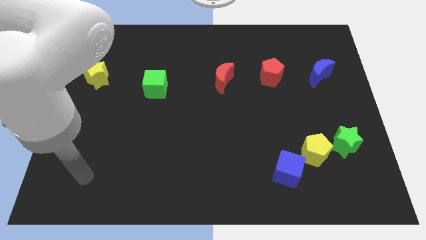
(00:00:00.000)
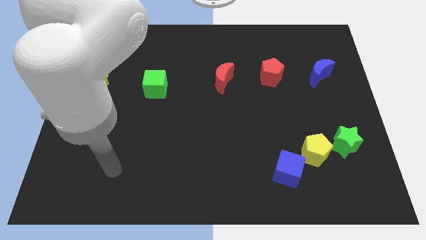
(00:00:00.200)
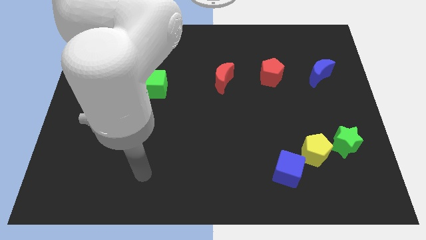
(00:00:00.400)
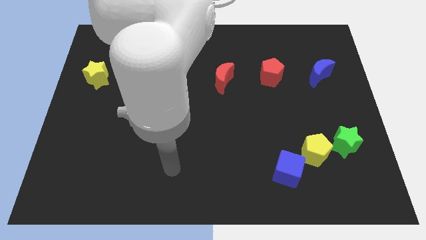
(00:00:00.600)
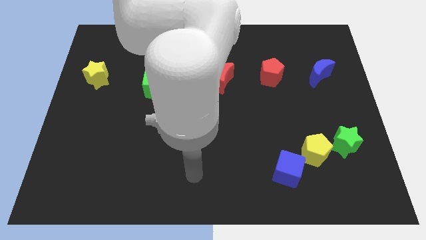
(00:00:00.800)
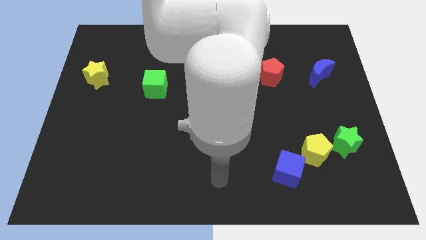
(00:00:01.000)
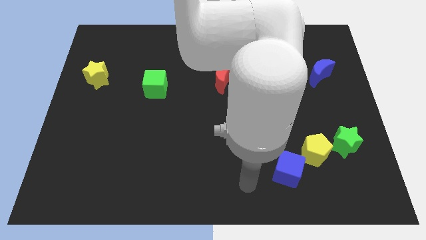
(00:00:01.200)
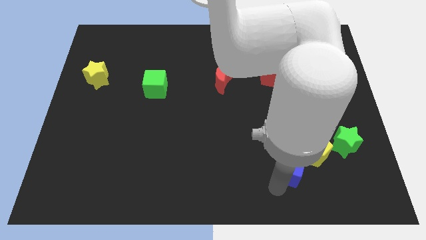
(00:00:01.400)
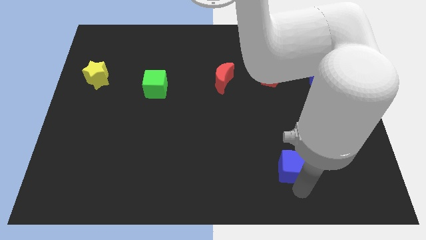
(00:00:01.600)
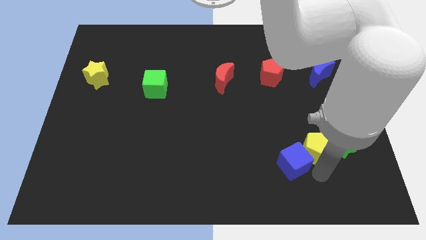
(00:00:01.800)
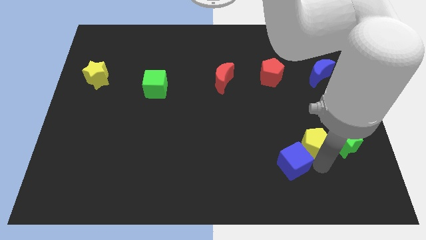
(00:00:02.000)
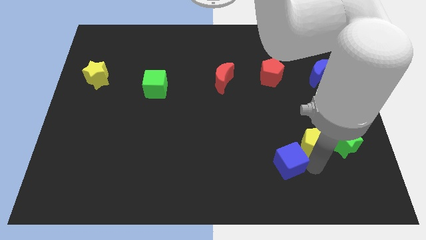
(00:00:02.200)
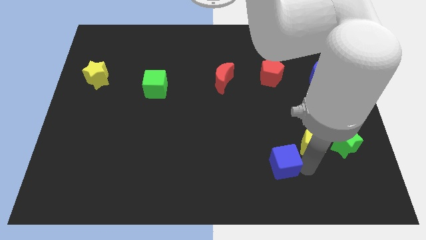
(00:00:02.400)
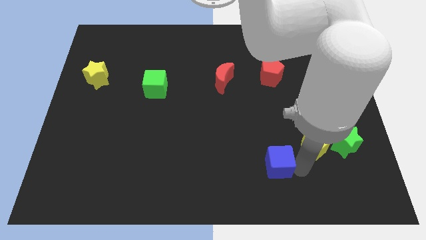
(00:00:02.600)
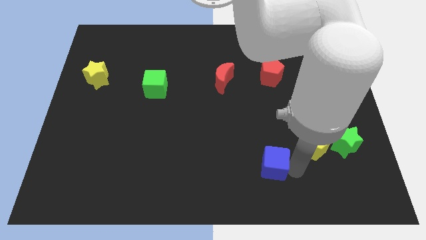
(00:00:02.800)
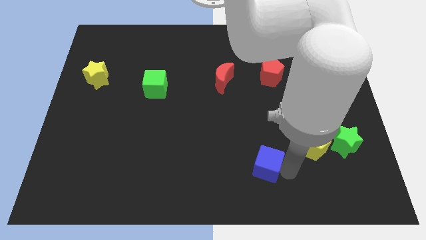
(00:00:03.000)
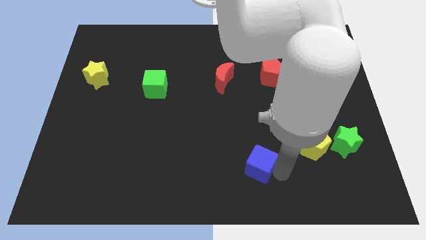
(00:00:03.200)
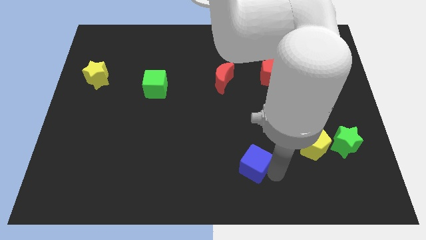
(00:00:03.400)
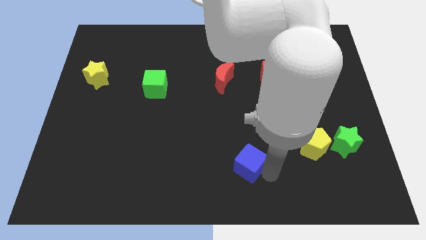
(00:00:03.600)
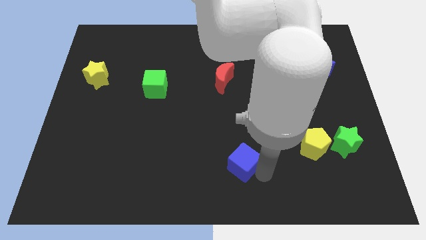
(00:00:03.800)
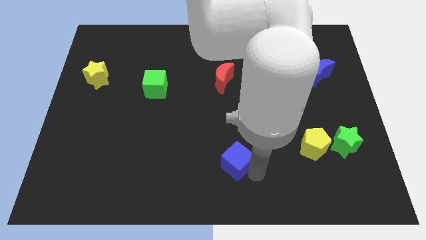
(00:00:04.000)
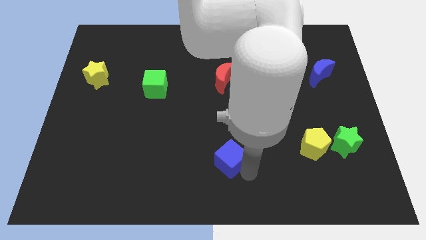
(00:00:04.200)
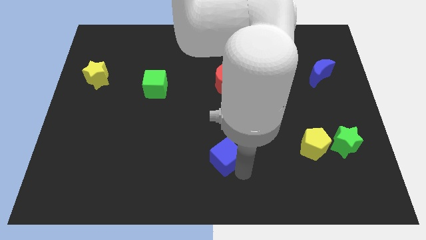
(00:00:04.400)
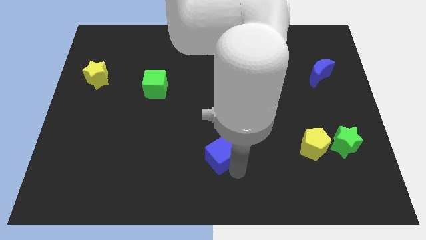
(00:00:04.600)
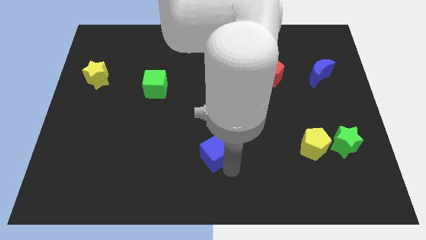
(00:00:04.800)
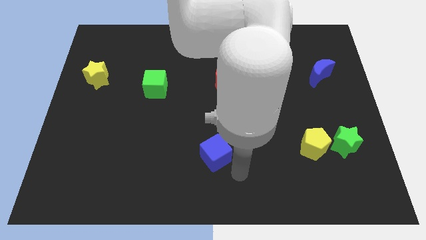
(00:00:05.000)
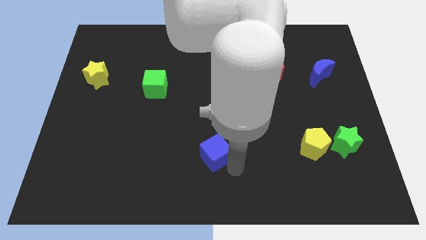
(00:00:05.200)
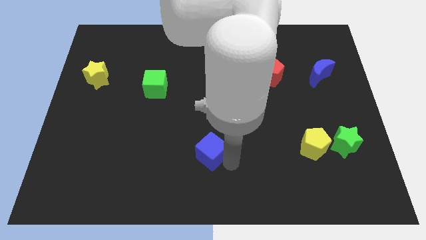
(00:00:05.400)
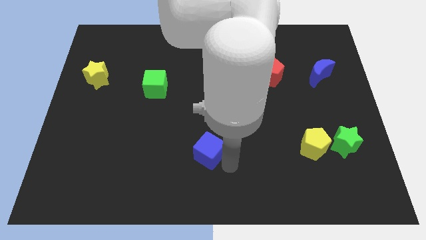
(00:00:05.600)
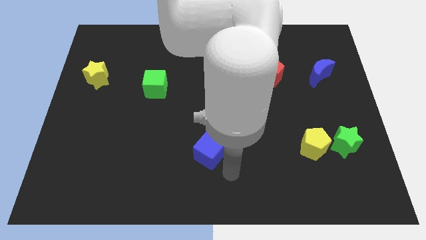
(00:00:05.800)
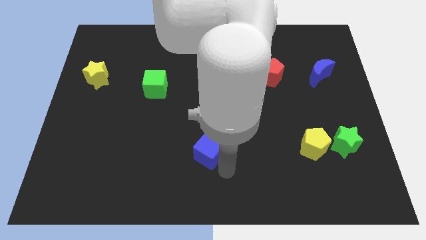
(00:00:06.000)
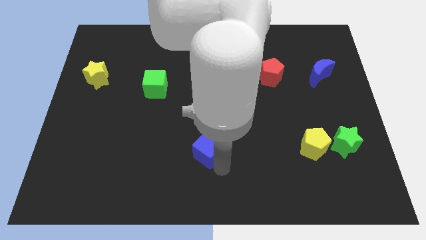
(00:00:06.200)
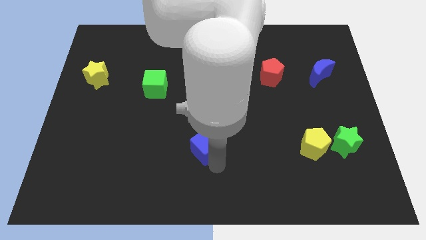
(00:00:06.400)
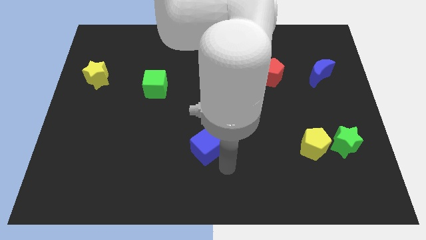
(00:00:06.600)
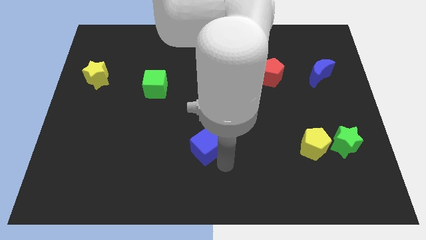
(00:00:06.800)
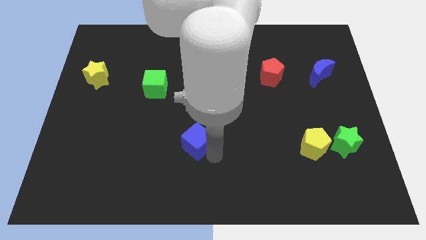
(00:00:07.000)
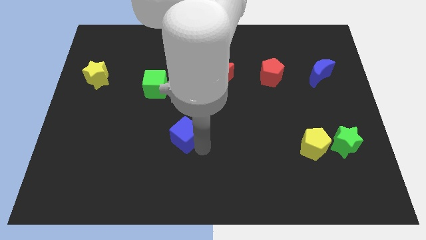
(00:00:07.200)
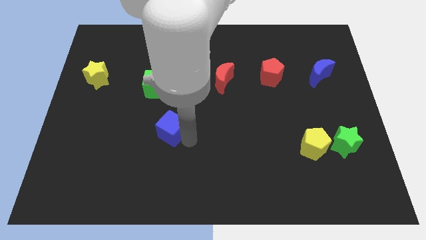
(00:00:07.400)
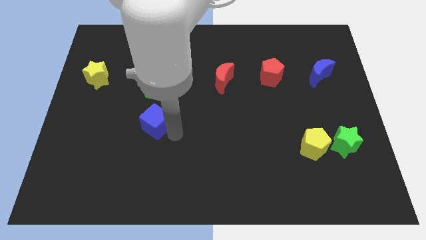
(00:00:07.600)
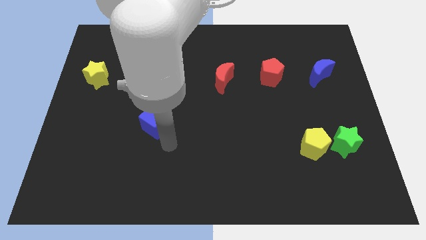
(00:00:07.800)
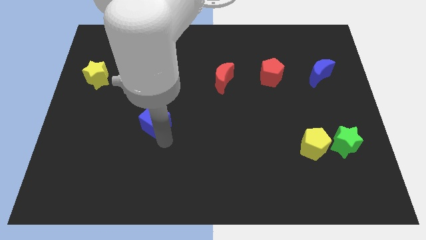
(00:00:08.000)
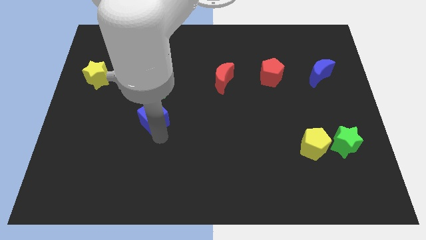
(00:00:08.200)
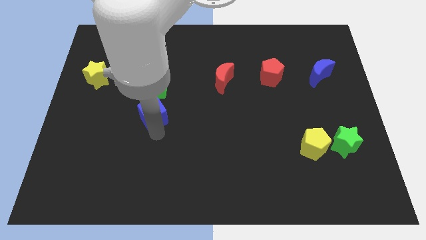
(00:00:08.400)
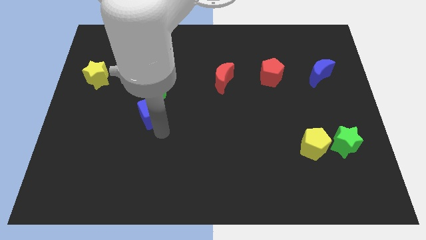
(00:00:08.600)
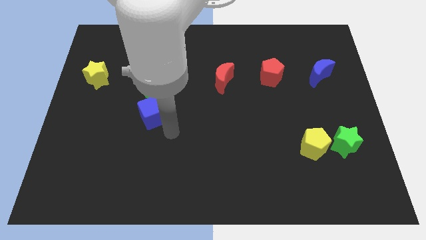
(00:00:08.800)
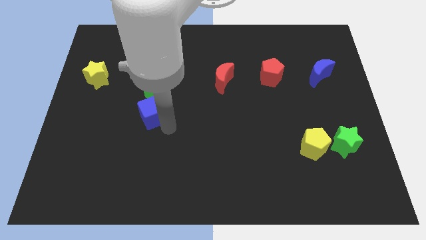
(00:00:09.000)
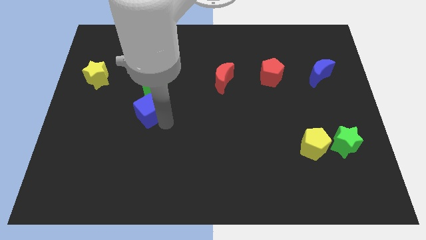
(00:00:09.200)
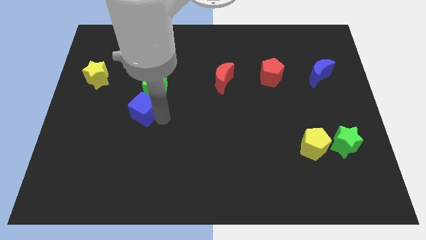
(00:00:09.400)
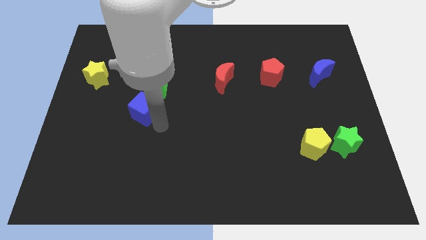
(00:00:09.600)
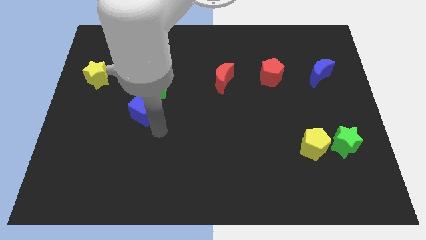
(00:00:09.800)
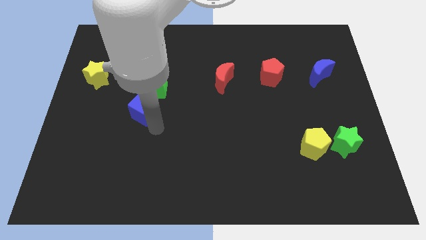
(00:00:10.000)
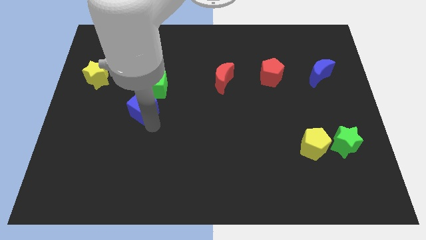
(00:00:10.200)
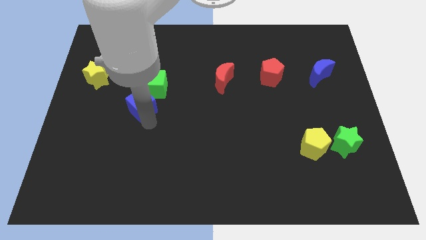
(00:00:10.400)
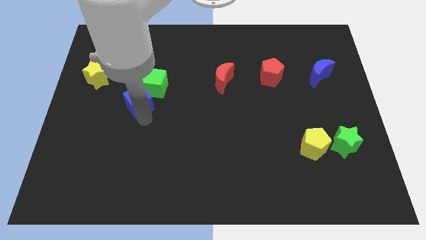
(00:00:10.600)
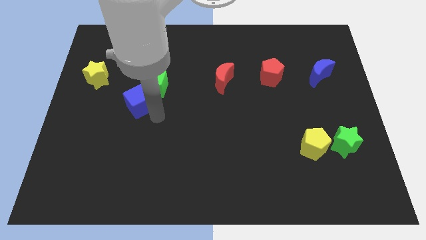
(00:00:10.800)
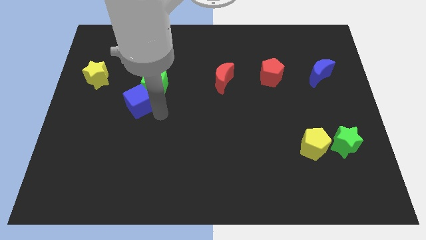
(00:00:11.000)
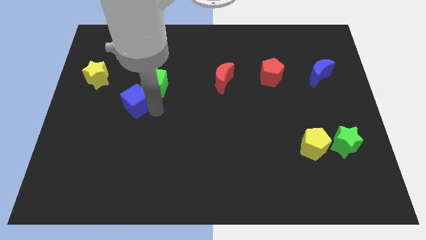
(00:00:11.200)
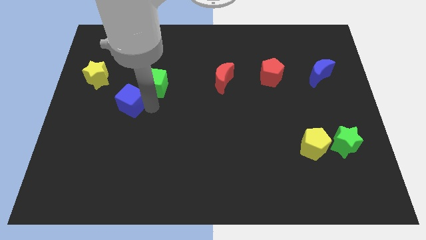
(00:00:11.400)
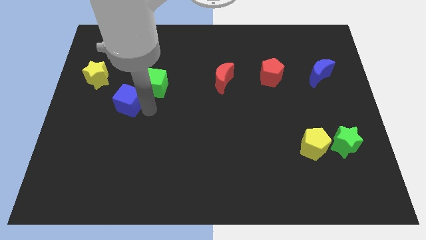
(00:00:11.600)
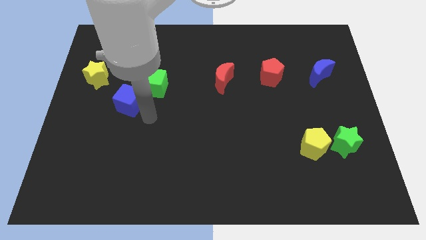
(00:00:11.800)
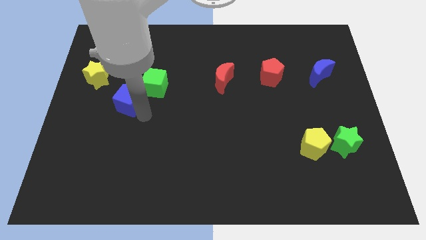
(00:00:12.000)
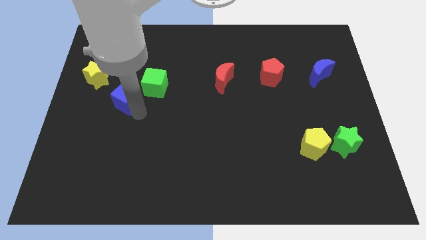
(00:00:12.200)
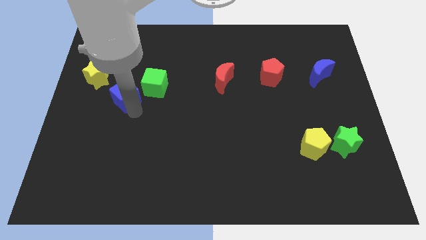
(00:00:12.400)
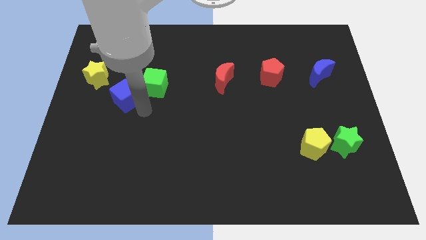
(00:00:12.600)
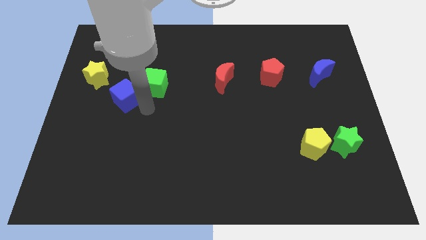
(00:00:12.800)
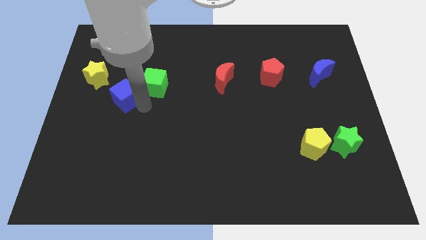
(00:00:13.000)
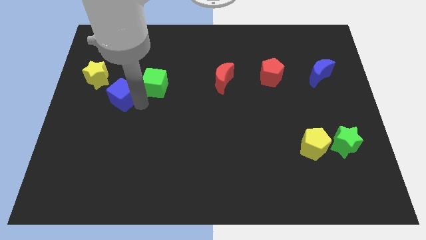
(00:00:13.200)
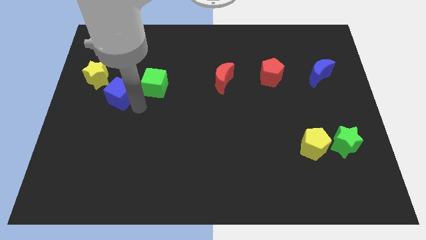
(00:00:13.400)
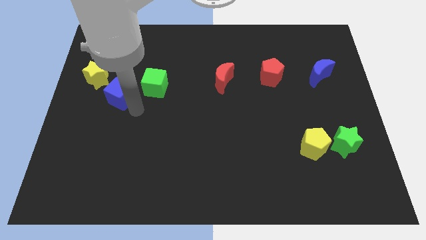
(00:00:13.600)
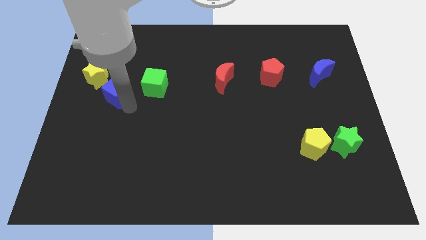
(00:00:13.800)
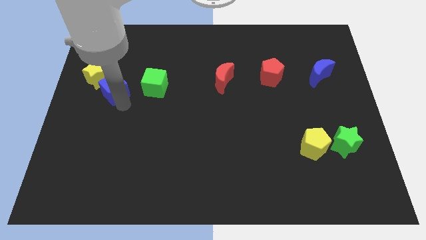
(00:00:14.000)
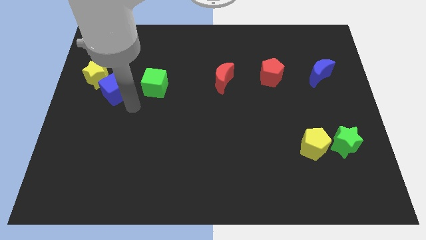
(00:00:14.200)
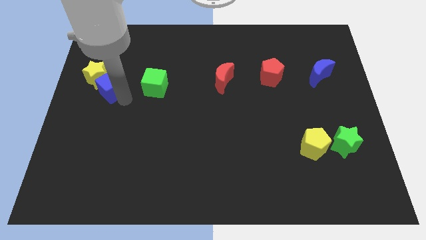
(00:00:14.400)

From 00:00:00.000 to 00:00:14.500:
put the blue cube close to the yellow star
